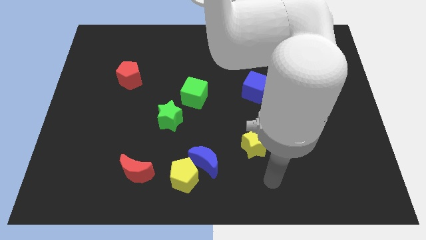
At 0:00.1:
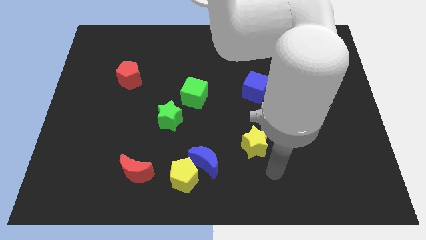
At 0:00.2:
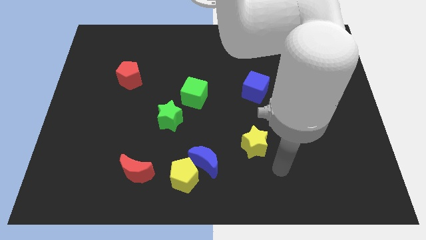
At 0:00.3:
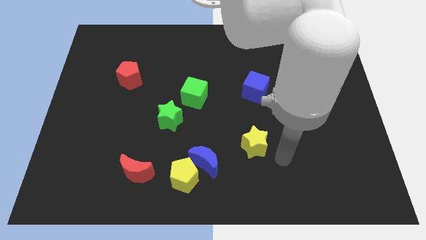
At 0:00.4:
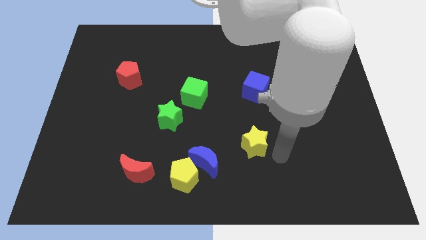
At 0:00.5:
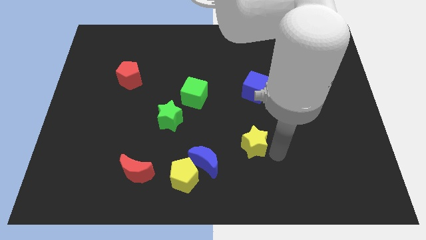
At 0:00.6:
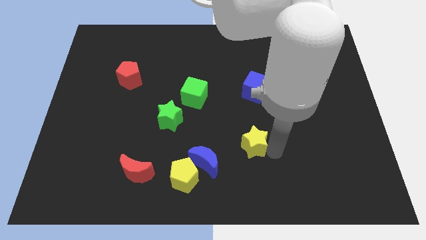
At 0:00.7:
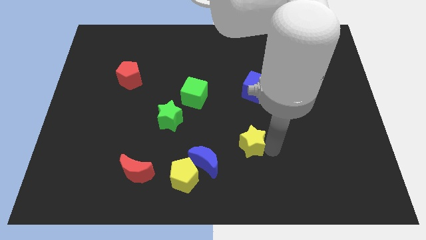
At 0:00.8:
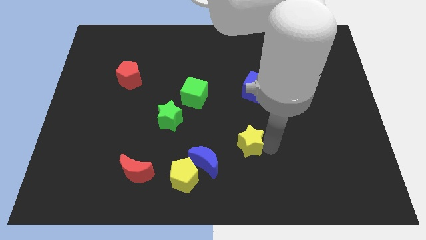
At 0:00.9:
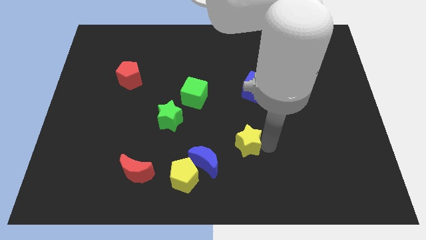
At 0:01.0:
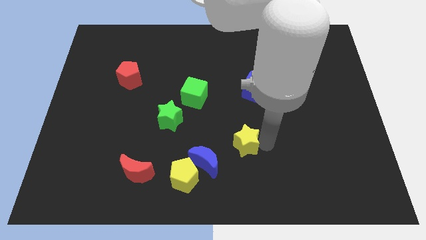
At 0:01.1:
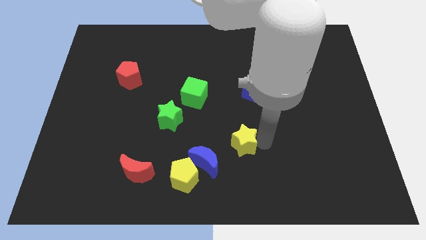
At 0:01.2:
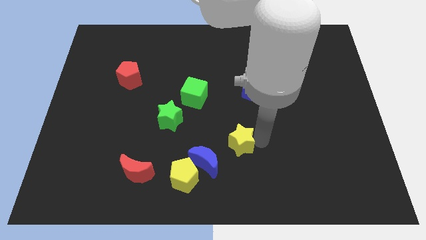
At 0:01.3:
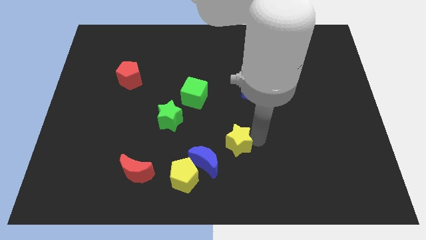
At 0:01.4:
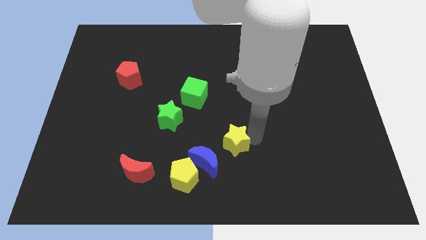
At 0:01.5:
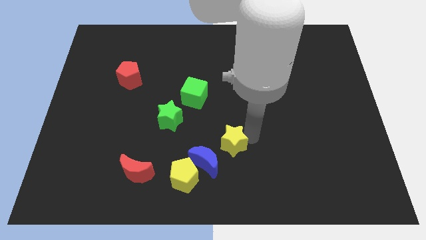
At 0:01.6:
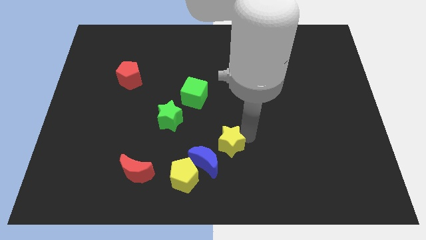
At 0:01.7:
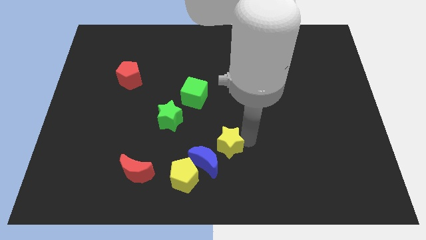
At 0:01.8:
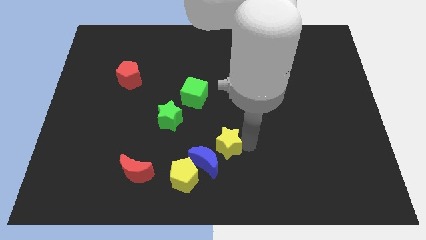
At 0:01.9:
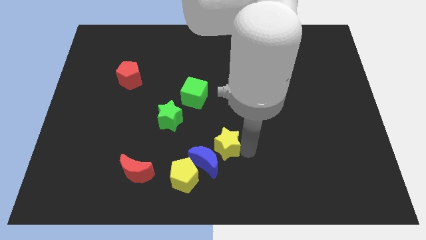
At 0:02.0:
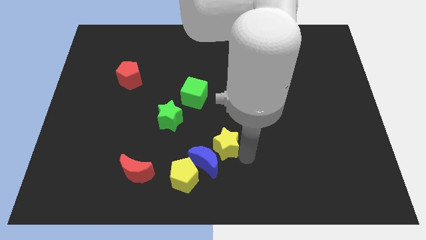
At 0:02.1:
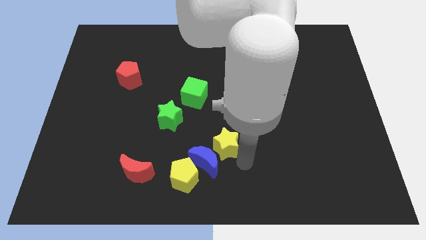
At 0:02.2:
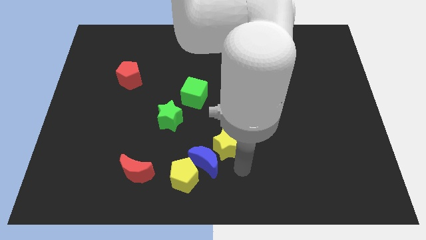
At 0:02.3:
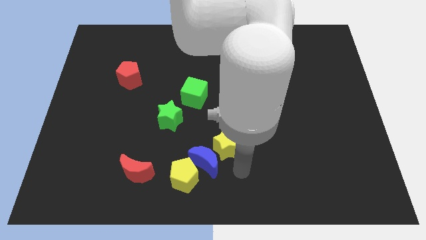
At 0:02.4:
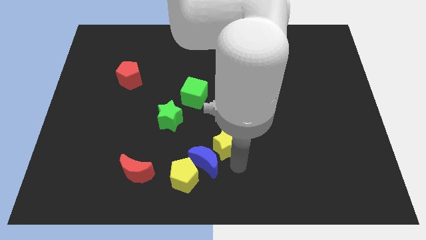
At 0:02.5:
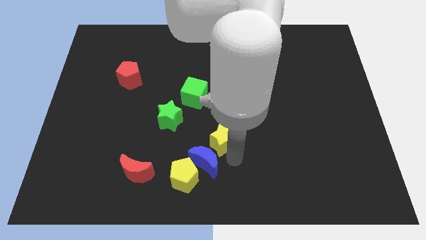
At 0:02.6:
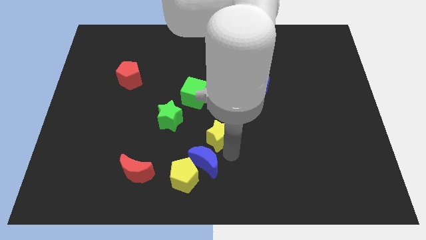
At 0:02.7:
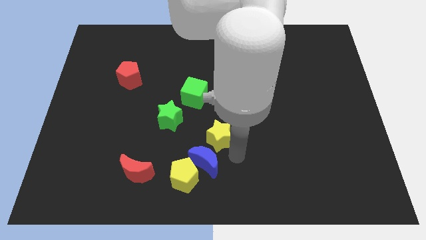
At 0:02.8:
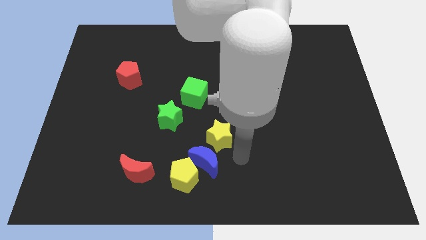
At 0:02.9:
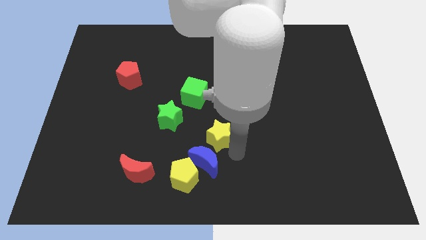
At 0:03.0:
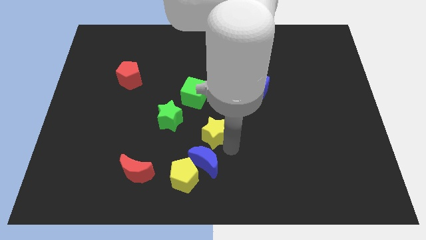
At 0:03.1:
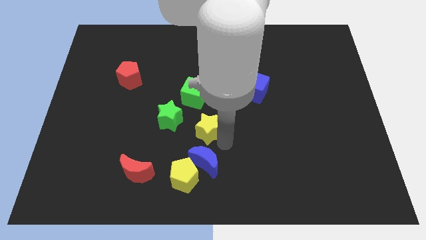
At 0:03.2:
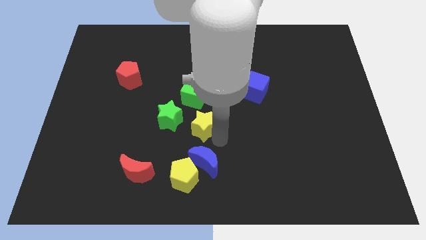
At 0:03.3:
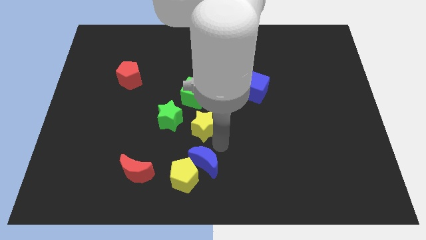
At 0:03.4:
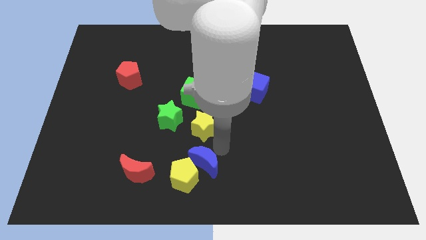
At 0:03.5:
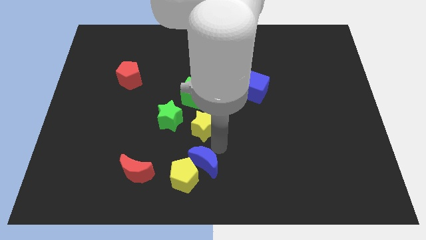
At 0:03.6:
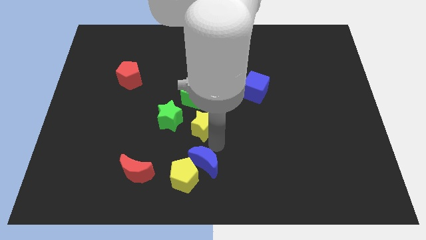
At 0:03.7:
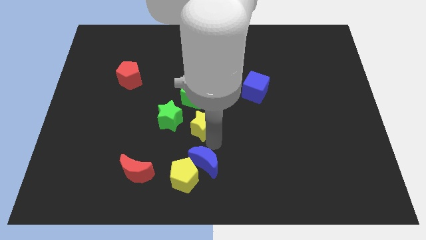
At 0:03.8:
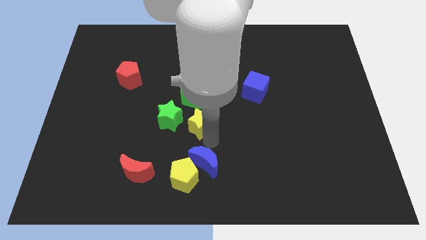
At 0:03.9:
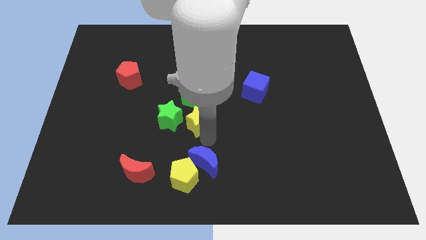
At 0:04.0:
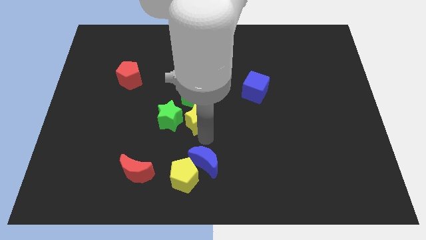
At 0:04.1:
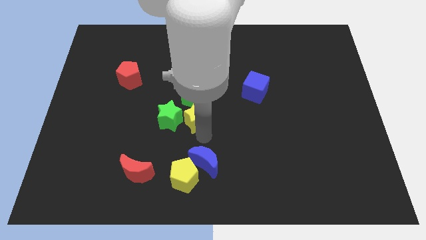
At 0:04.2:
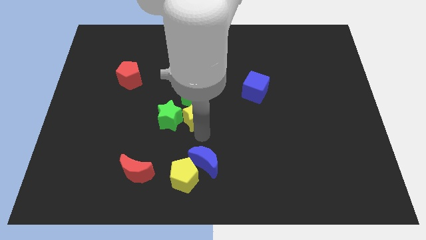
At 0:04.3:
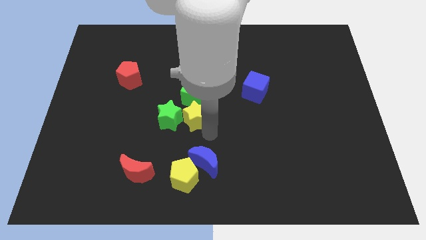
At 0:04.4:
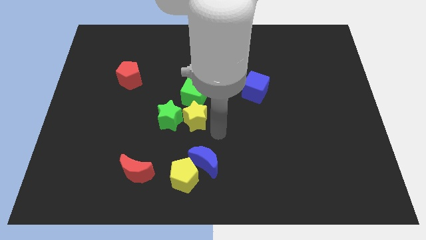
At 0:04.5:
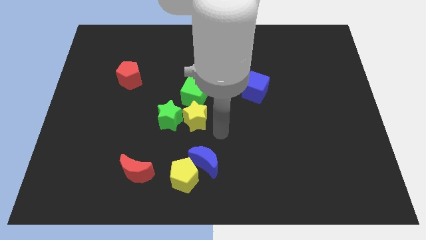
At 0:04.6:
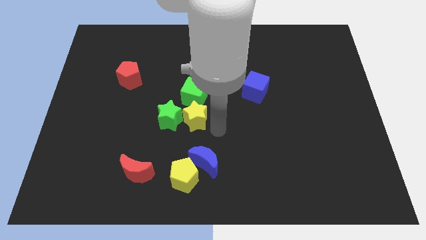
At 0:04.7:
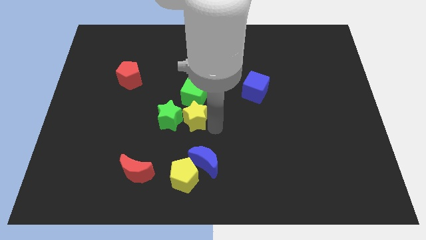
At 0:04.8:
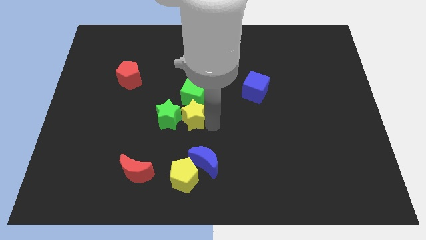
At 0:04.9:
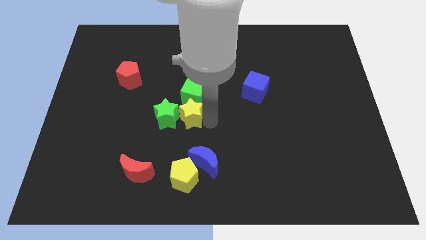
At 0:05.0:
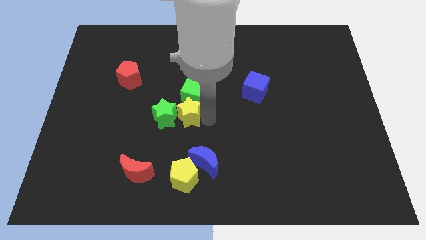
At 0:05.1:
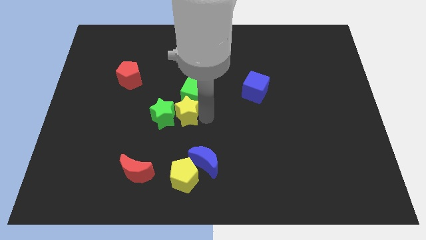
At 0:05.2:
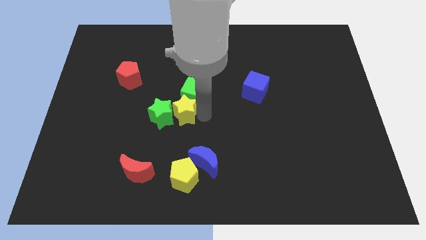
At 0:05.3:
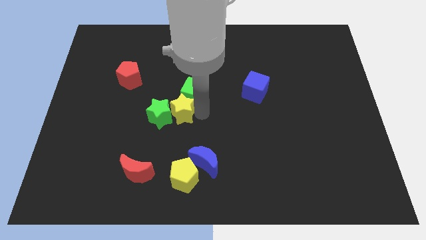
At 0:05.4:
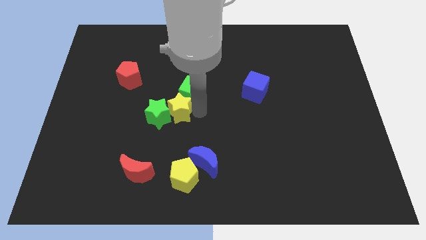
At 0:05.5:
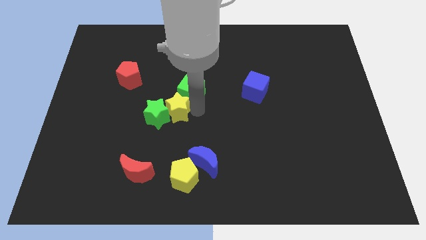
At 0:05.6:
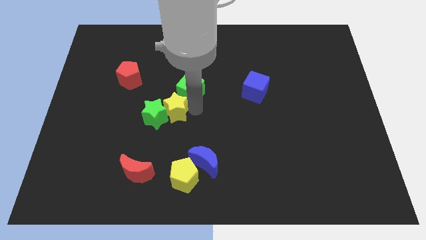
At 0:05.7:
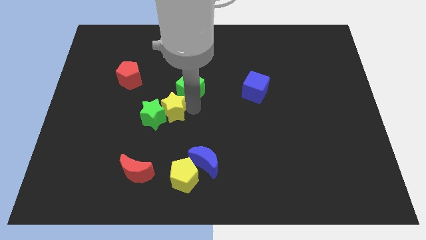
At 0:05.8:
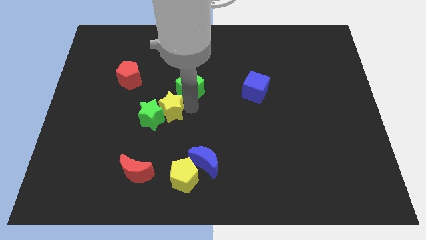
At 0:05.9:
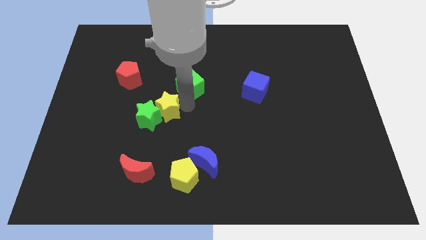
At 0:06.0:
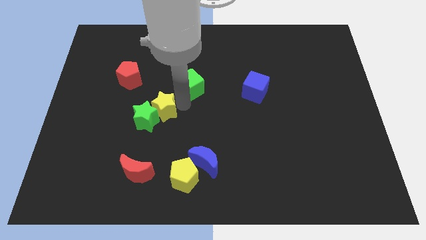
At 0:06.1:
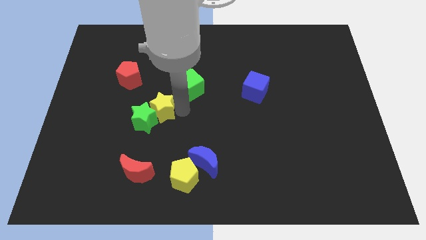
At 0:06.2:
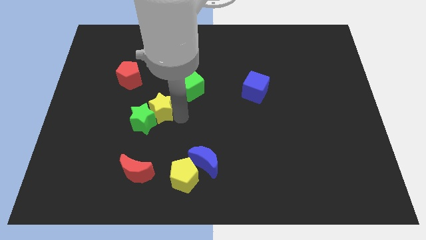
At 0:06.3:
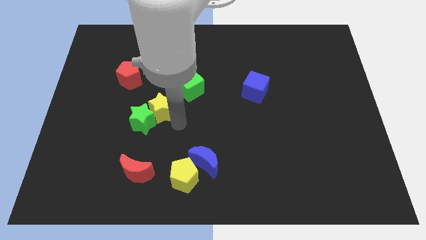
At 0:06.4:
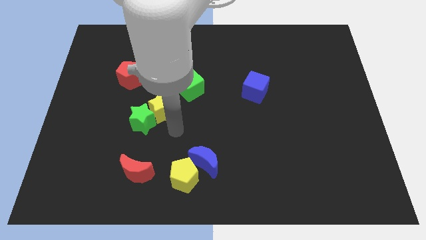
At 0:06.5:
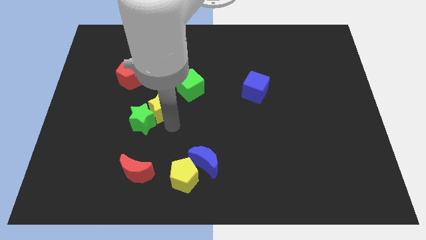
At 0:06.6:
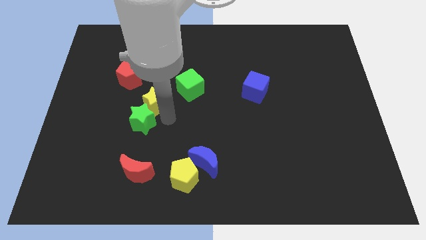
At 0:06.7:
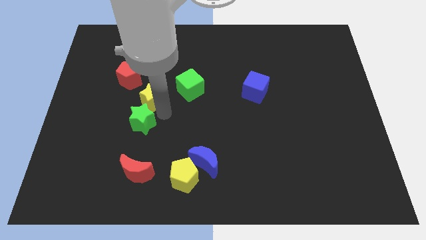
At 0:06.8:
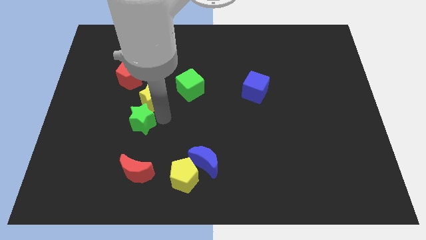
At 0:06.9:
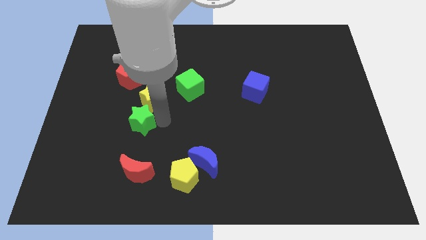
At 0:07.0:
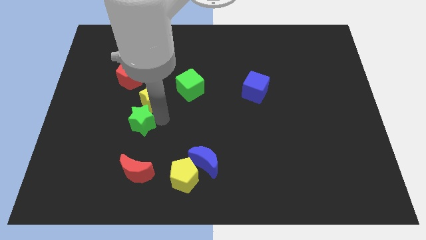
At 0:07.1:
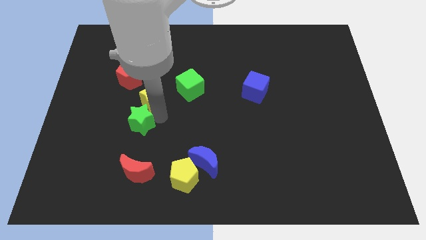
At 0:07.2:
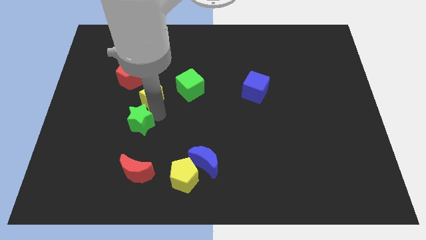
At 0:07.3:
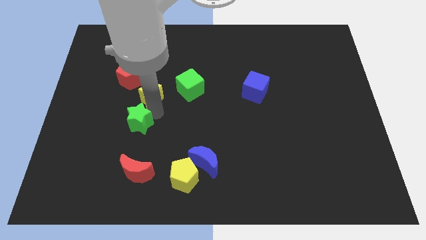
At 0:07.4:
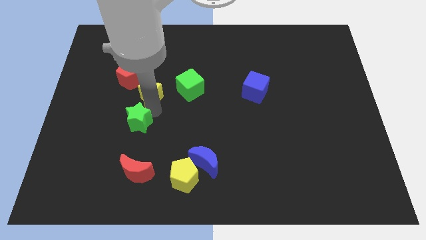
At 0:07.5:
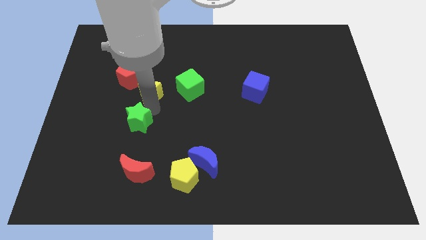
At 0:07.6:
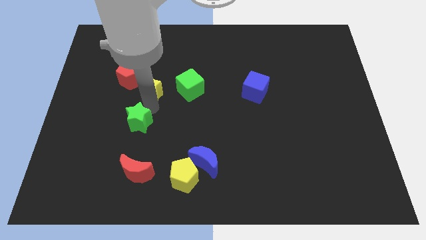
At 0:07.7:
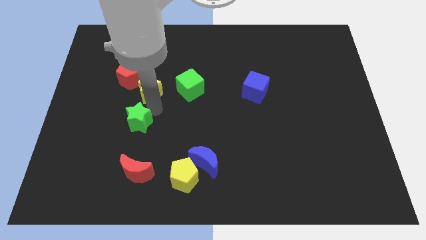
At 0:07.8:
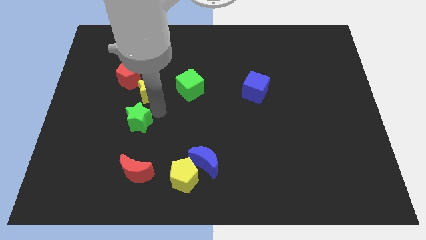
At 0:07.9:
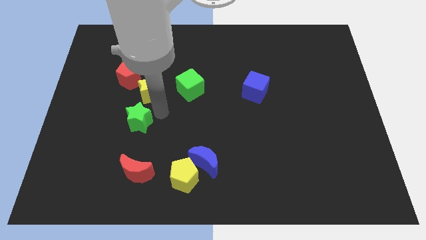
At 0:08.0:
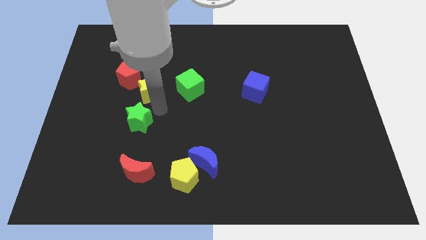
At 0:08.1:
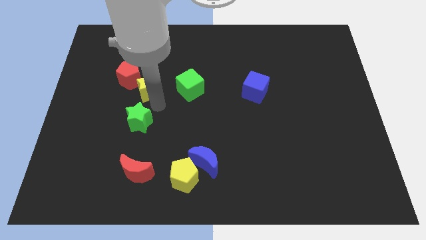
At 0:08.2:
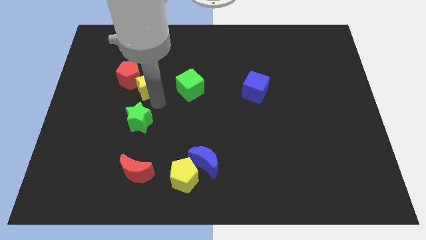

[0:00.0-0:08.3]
slide the yellow star towards the red pentagon
